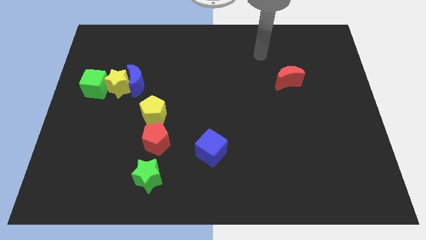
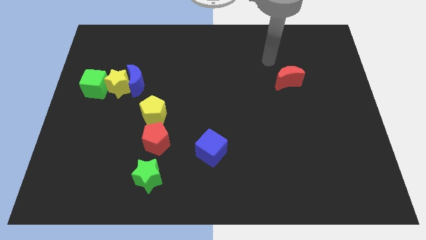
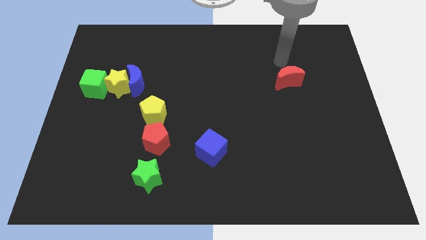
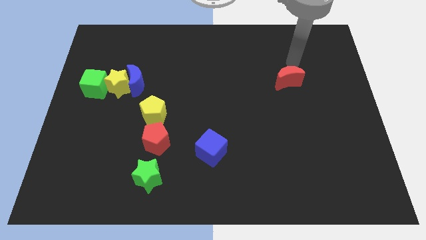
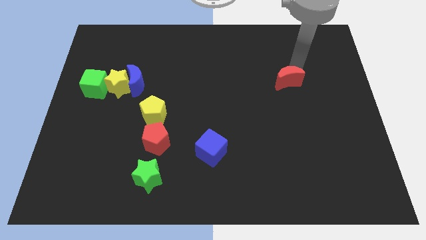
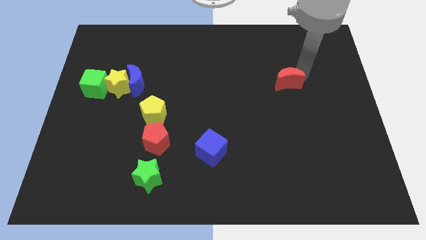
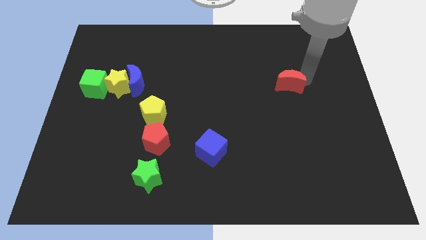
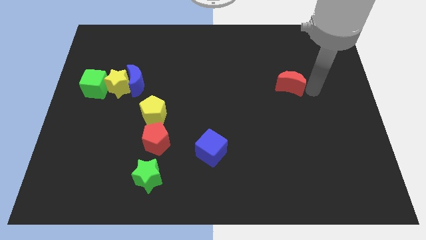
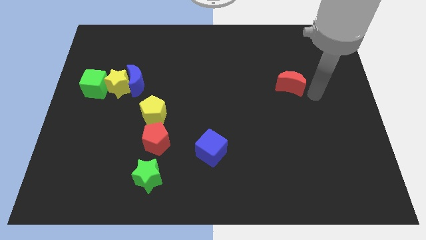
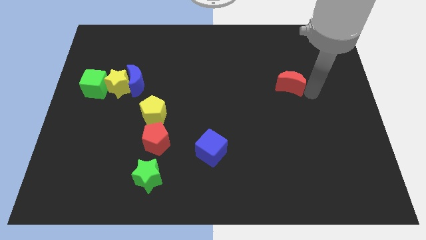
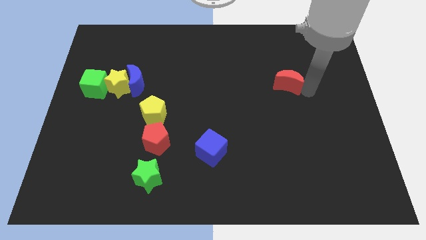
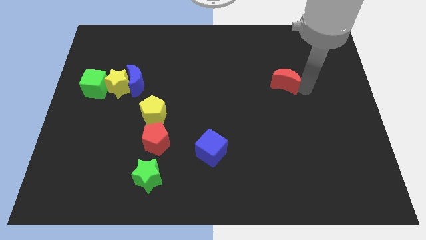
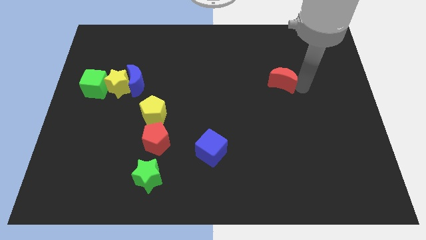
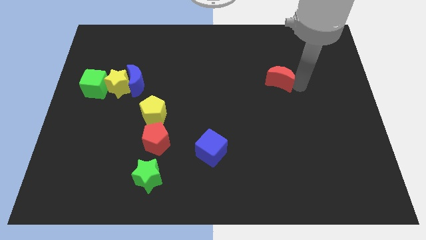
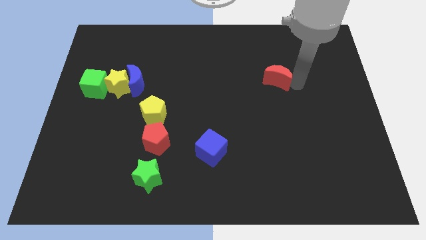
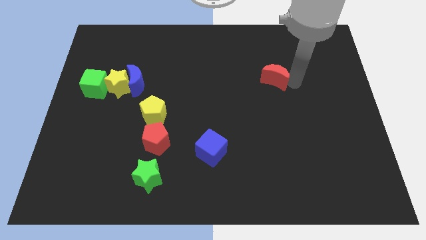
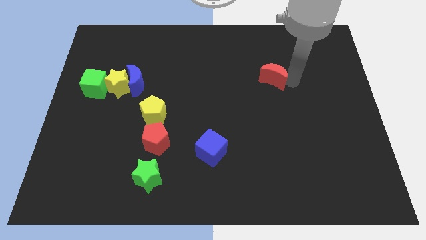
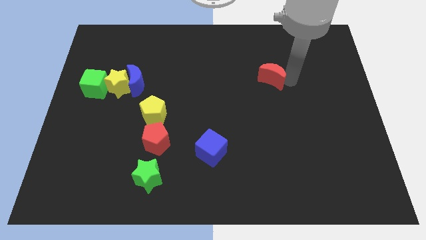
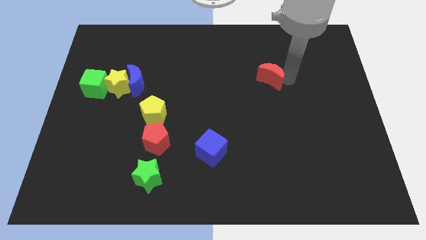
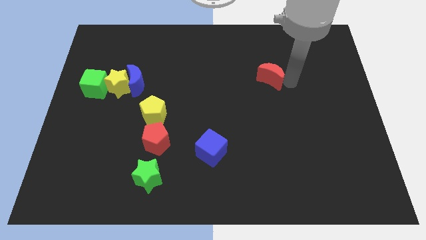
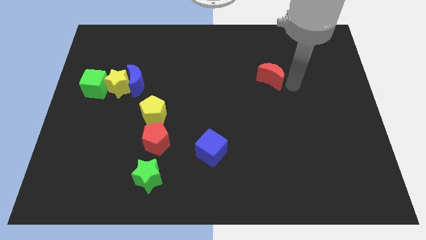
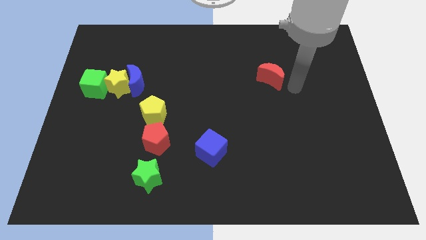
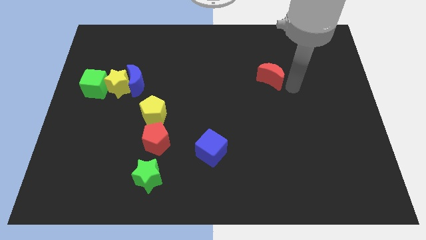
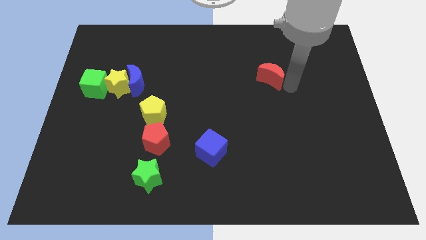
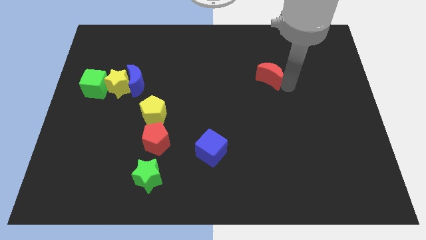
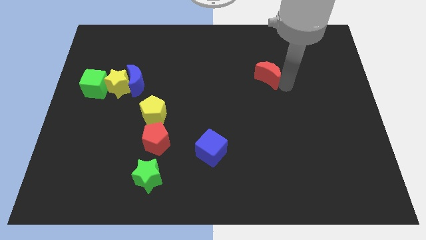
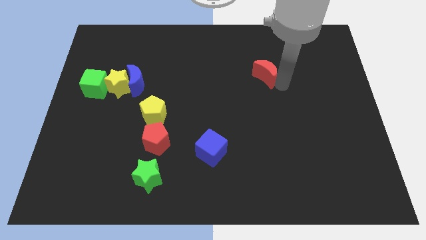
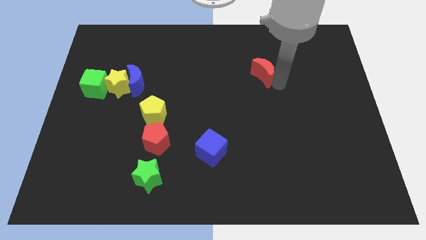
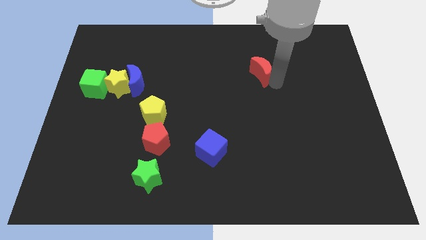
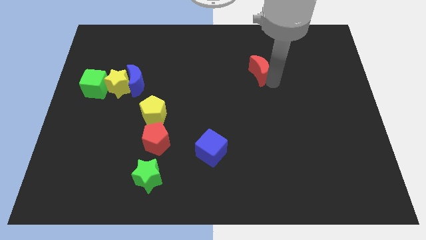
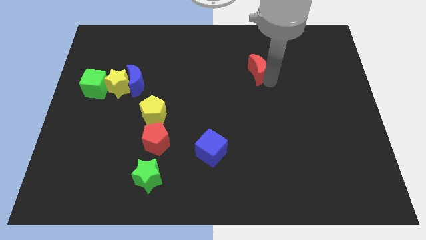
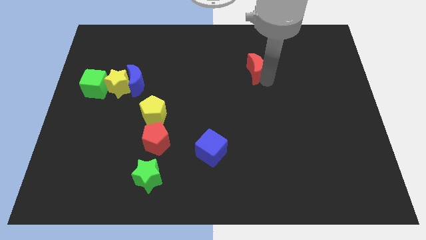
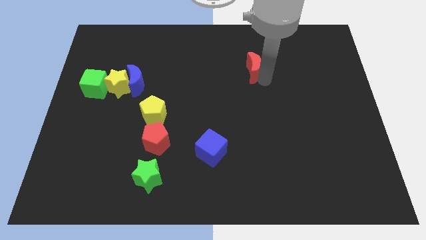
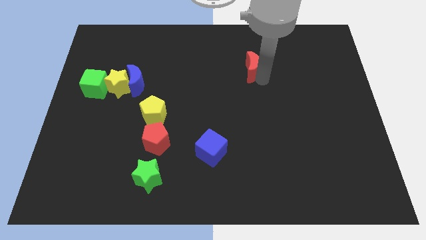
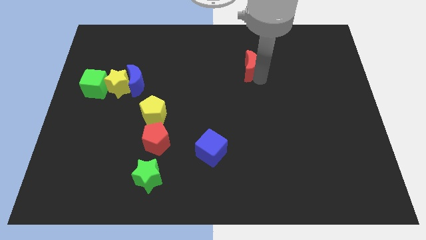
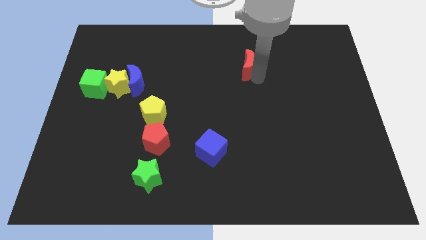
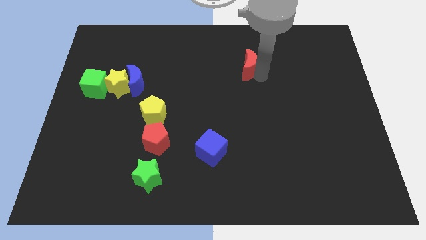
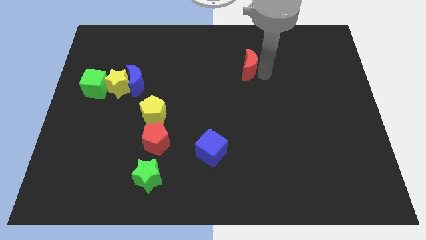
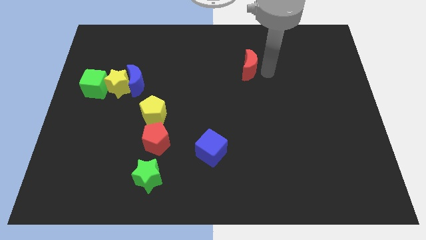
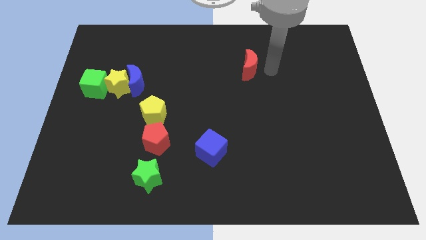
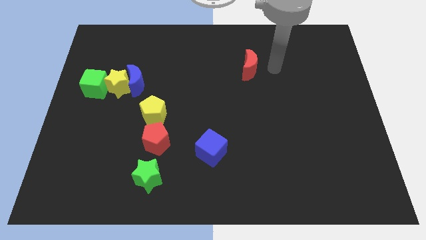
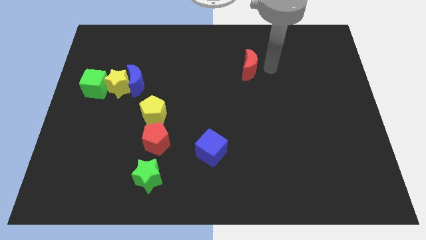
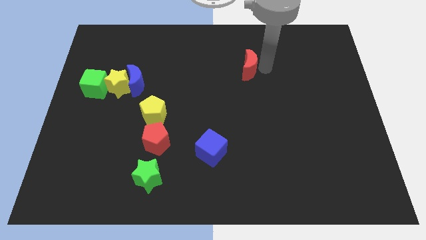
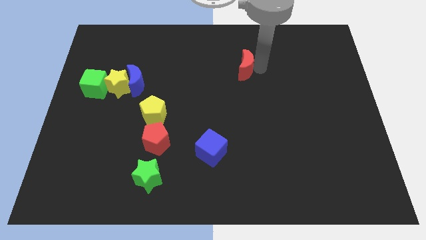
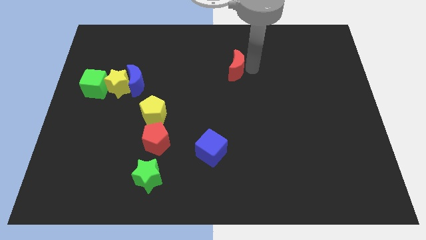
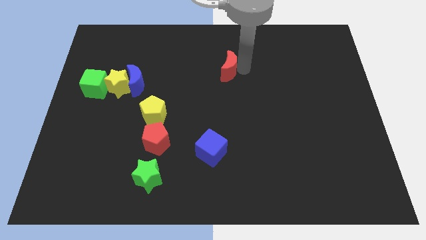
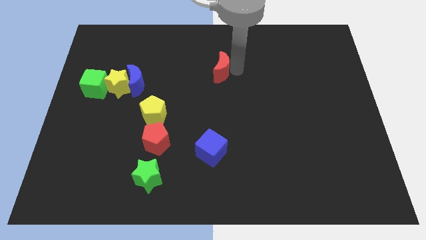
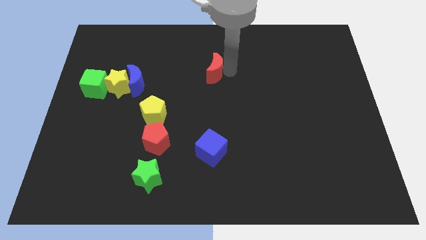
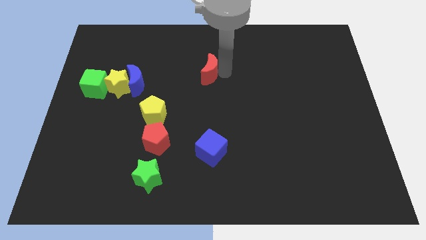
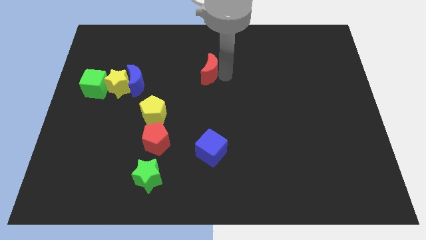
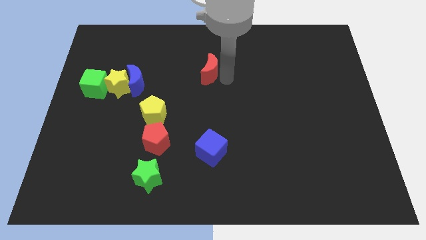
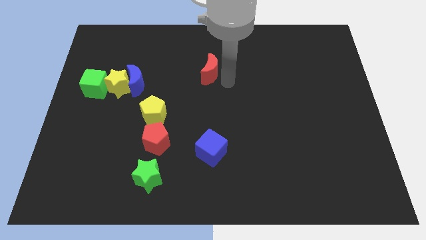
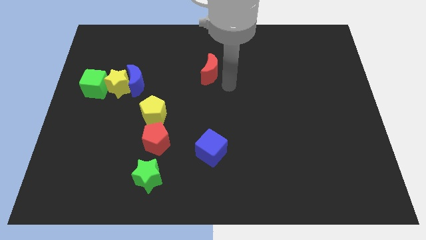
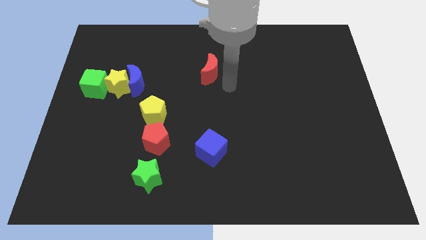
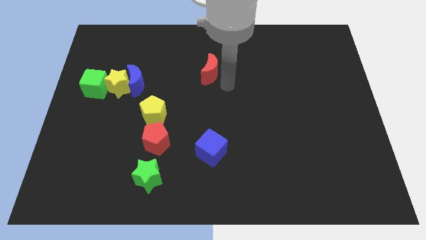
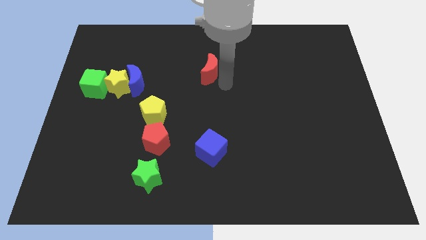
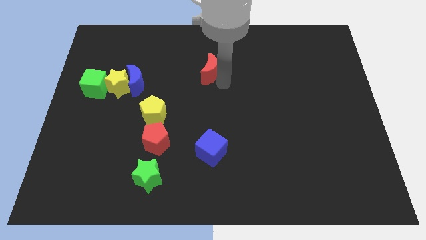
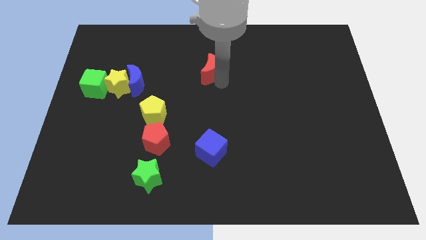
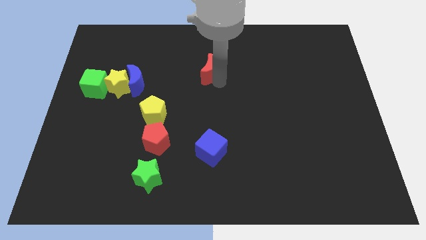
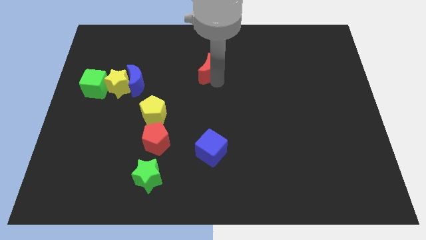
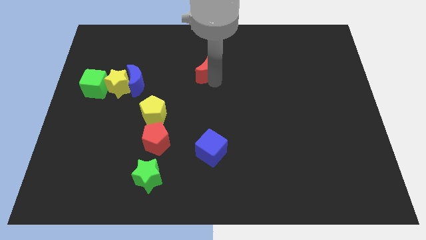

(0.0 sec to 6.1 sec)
push the red moon left

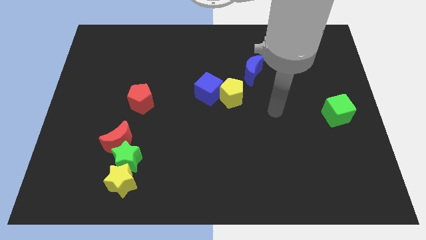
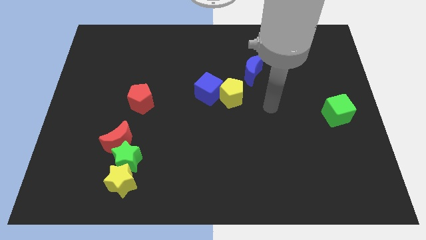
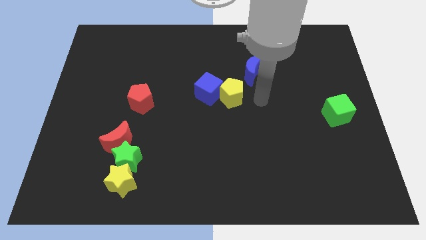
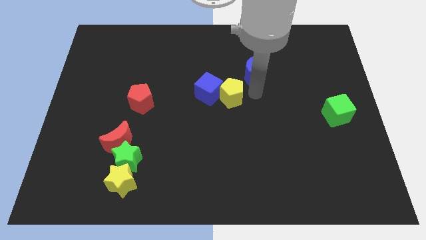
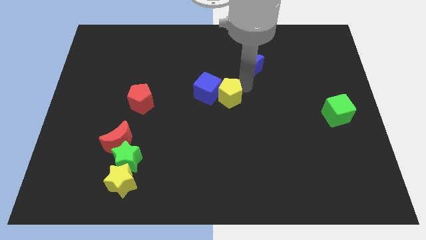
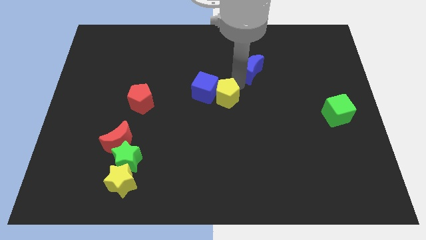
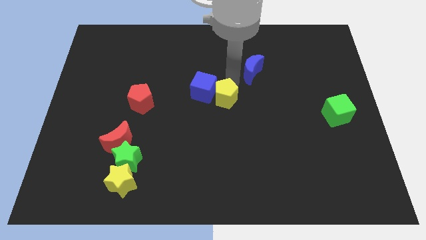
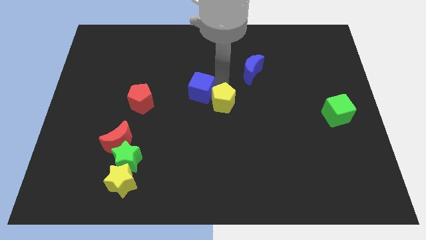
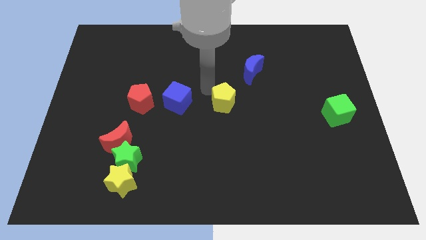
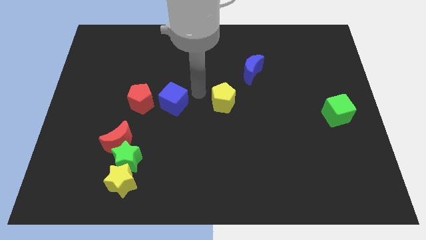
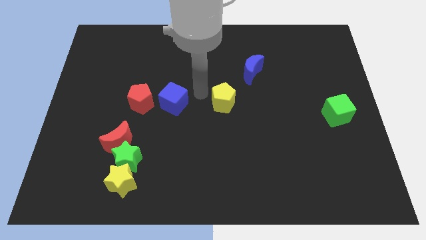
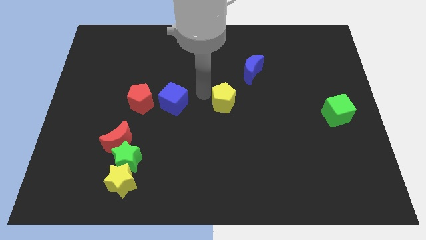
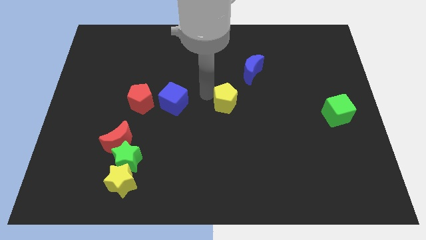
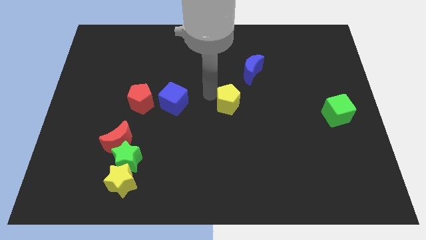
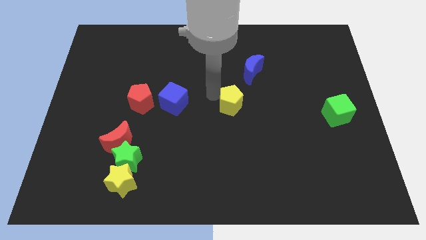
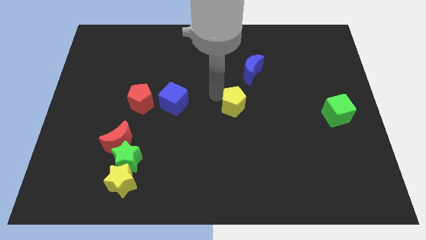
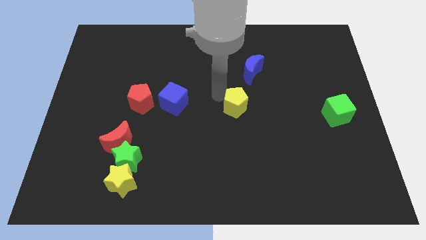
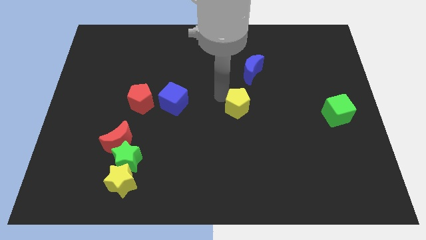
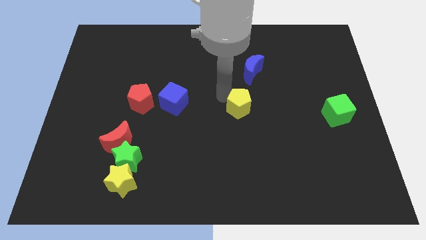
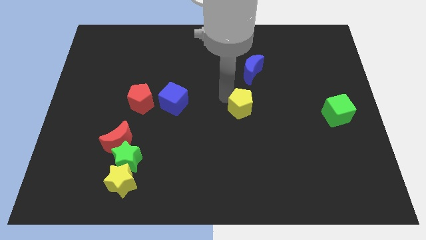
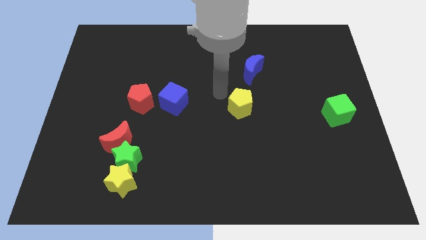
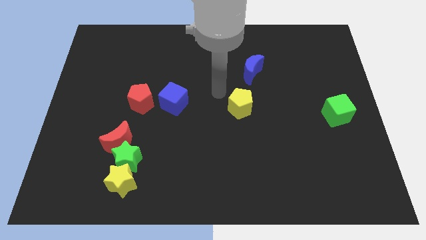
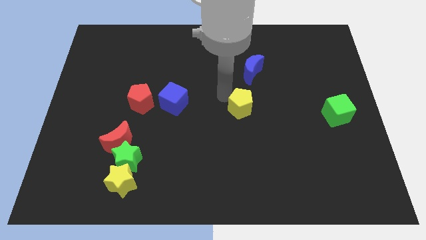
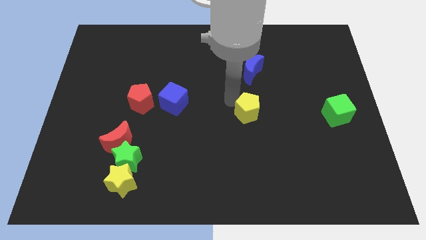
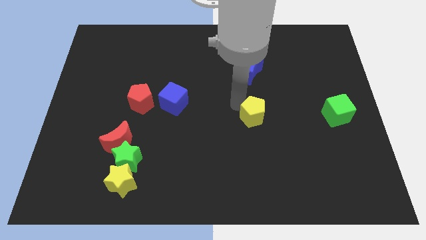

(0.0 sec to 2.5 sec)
slide the yellow pentagon downwards and to the right a little
